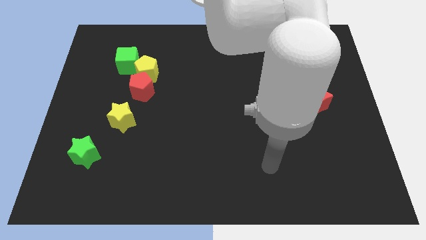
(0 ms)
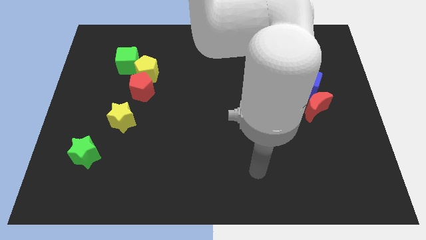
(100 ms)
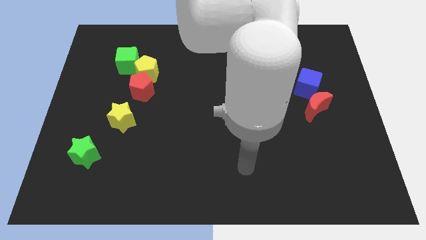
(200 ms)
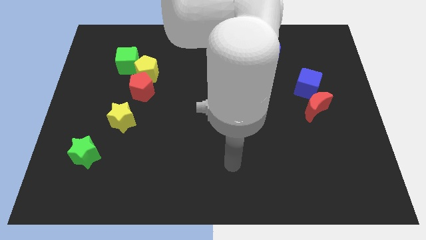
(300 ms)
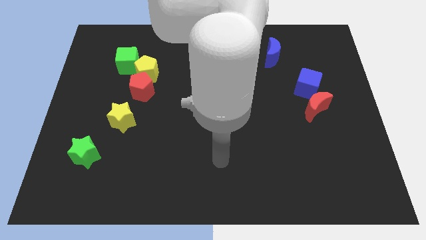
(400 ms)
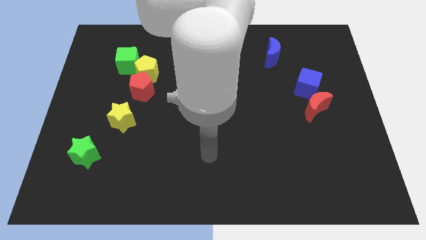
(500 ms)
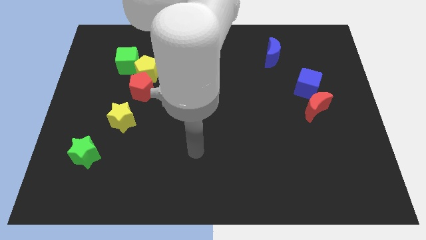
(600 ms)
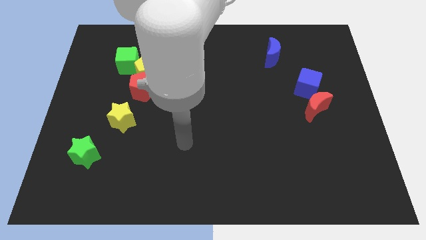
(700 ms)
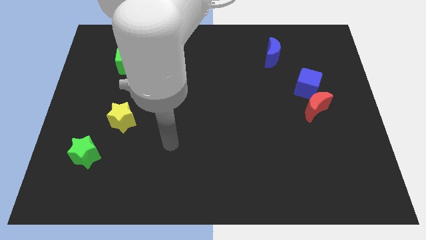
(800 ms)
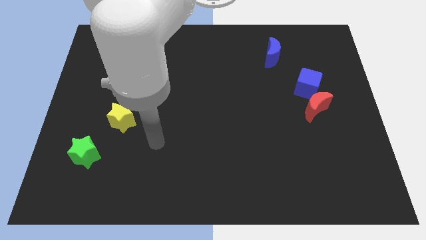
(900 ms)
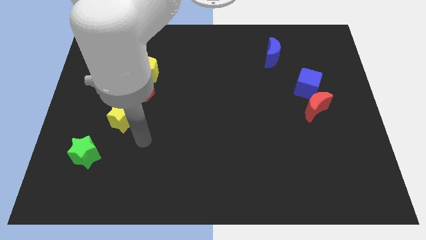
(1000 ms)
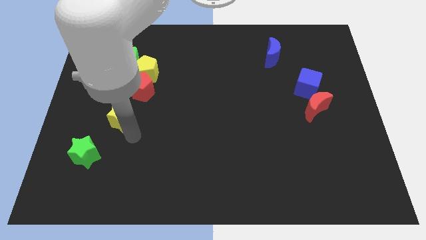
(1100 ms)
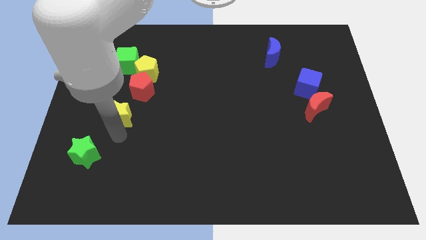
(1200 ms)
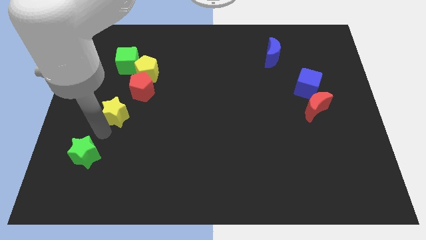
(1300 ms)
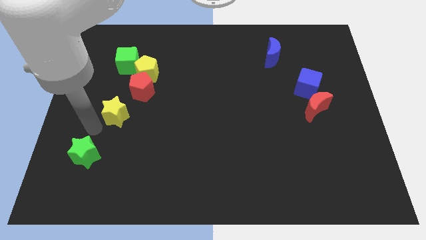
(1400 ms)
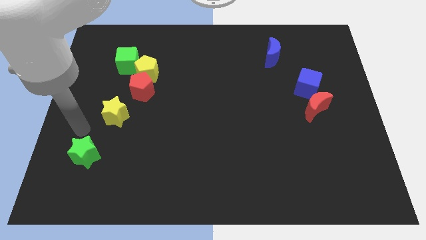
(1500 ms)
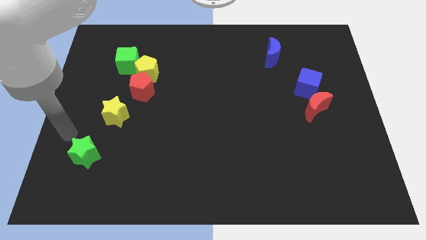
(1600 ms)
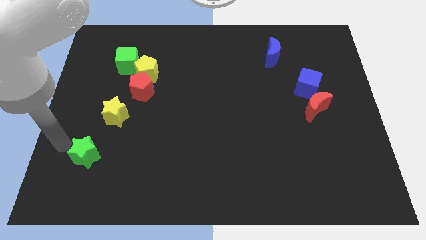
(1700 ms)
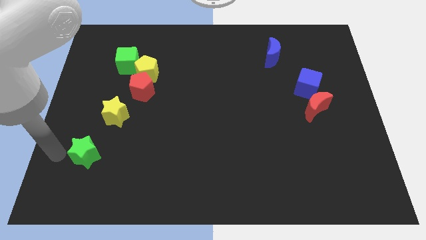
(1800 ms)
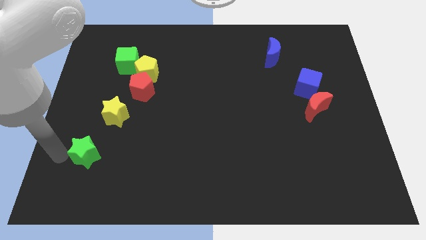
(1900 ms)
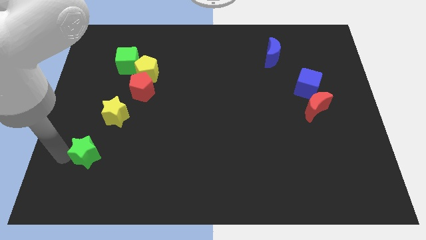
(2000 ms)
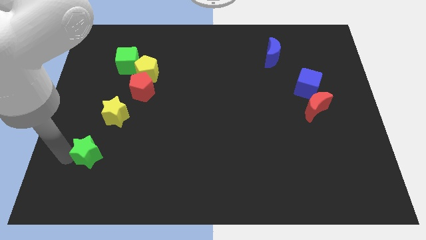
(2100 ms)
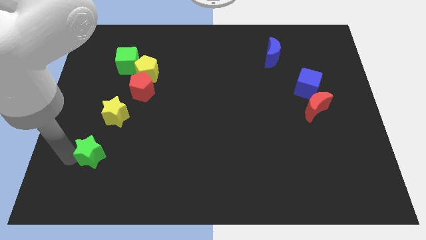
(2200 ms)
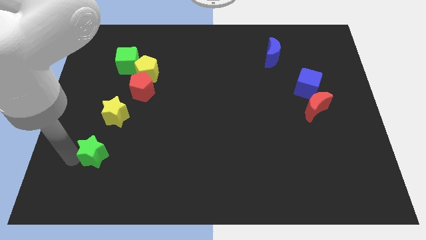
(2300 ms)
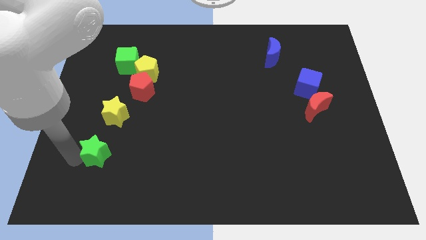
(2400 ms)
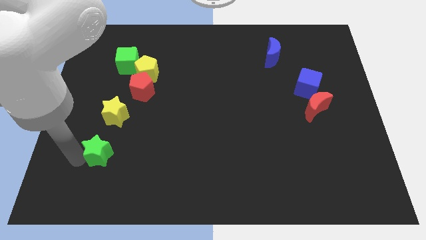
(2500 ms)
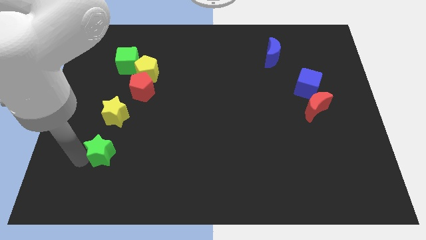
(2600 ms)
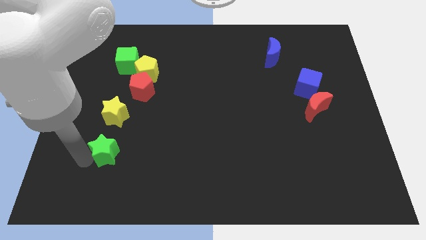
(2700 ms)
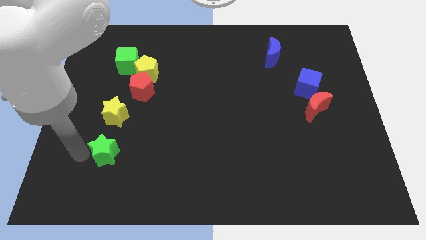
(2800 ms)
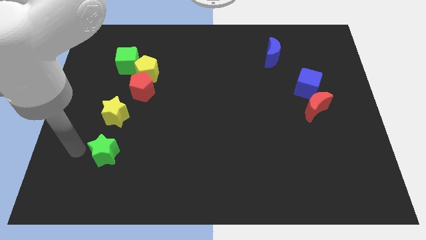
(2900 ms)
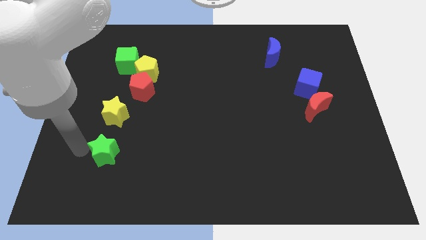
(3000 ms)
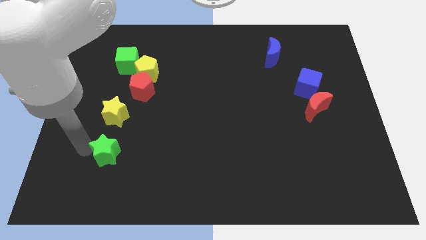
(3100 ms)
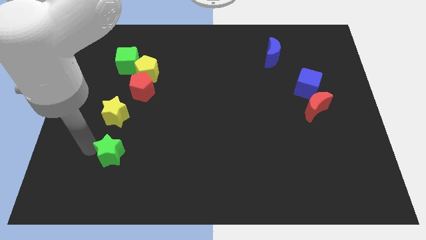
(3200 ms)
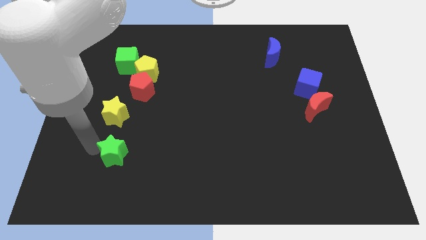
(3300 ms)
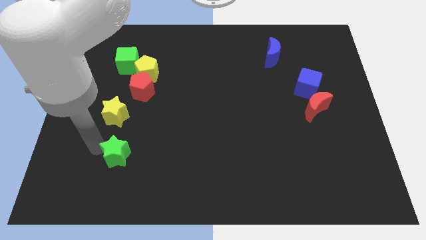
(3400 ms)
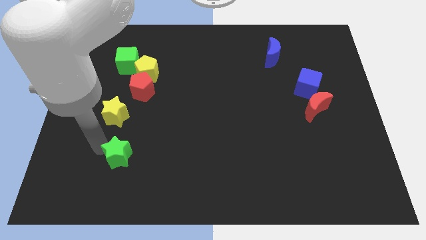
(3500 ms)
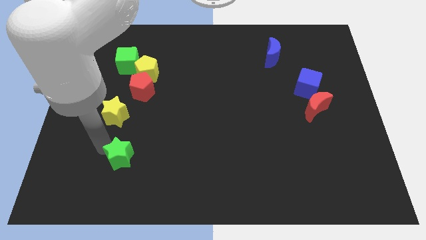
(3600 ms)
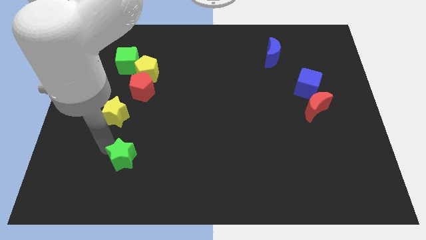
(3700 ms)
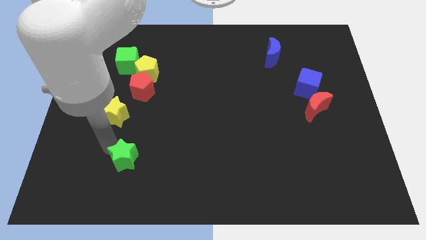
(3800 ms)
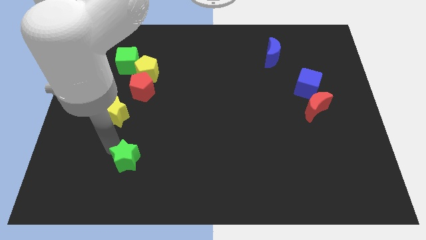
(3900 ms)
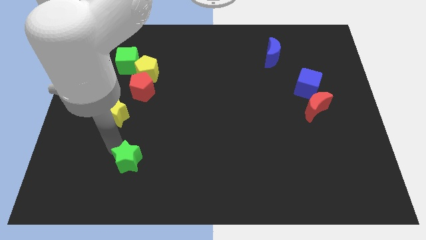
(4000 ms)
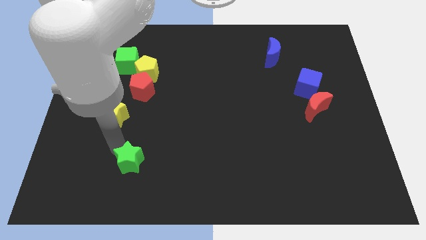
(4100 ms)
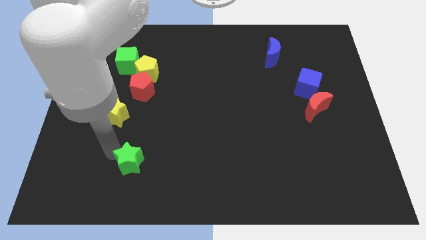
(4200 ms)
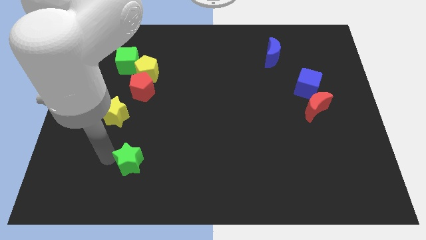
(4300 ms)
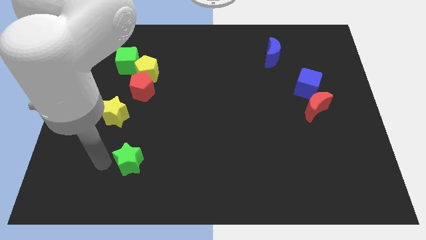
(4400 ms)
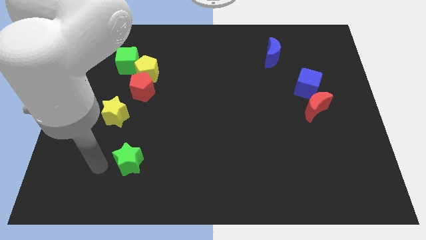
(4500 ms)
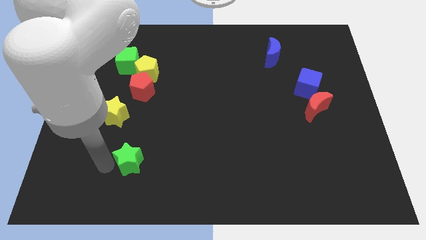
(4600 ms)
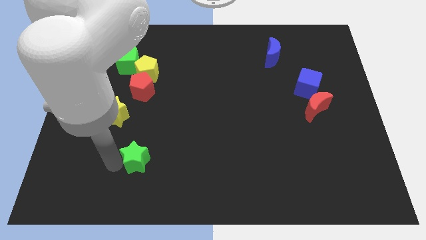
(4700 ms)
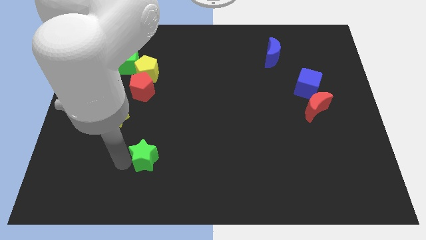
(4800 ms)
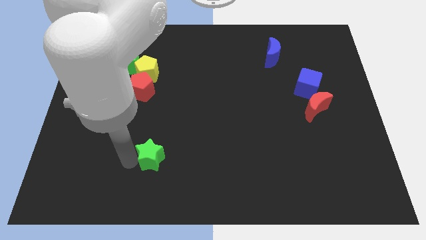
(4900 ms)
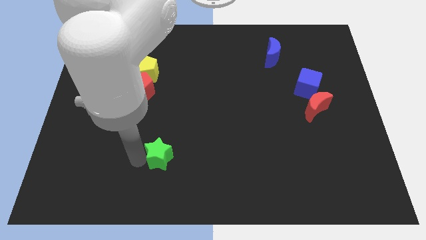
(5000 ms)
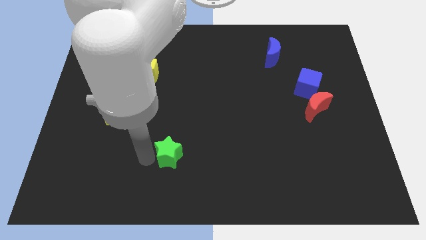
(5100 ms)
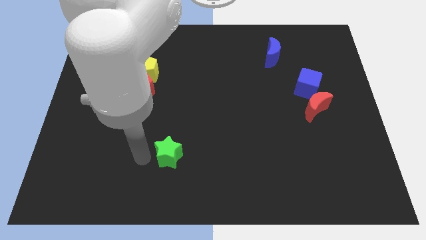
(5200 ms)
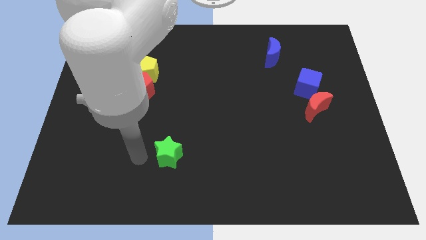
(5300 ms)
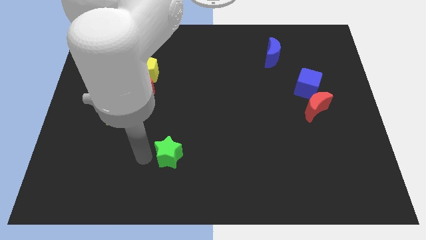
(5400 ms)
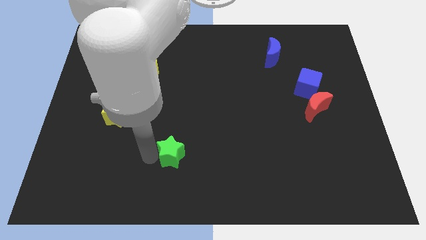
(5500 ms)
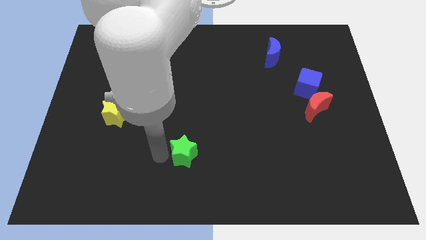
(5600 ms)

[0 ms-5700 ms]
slide the green star to the right

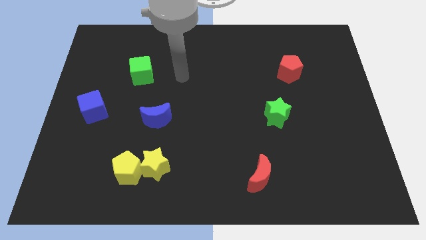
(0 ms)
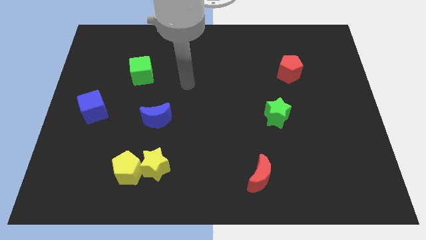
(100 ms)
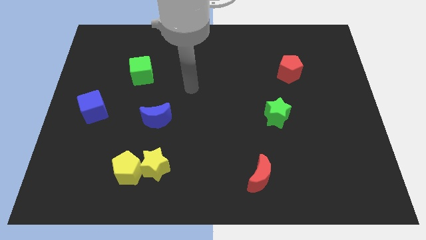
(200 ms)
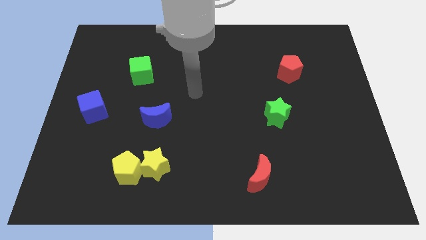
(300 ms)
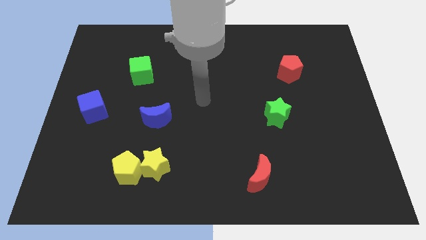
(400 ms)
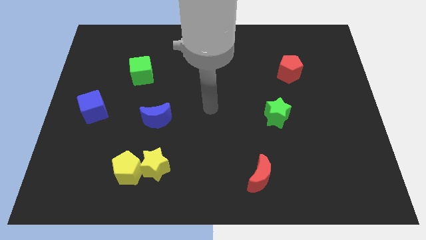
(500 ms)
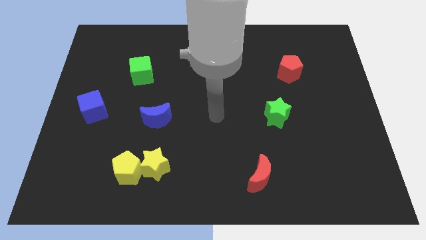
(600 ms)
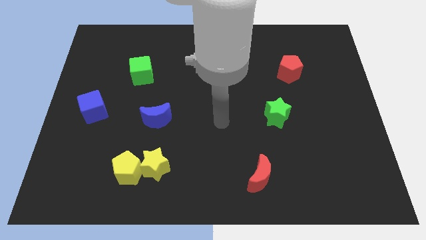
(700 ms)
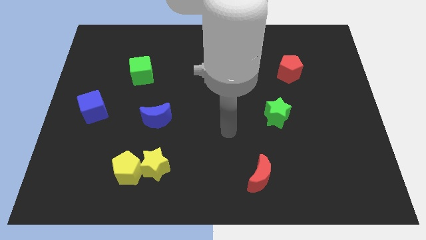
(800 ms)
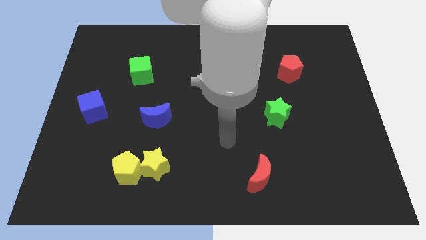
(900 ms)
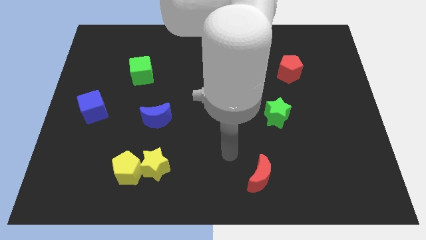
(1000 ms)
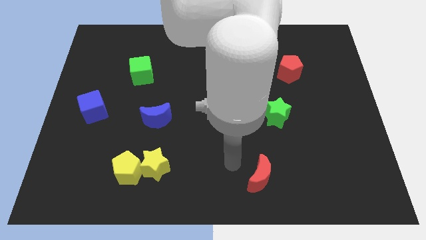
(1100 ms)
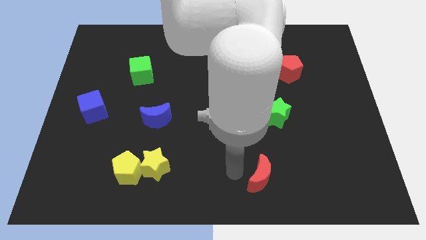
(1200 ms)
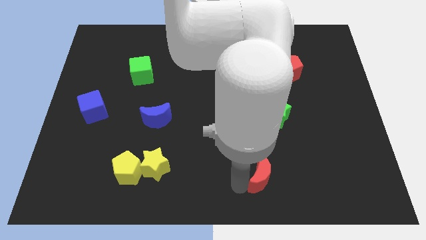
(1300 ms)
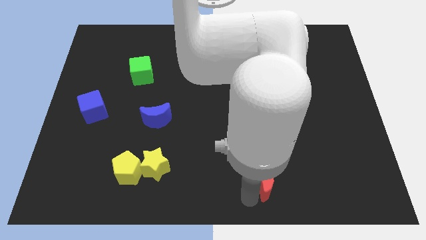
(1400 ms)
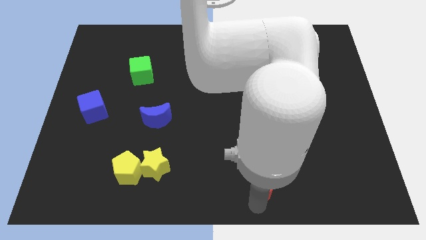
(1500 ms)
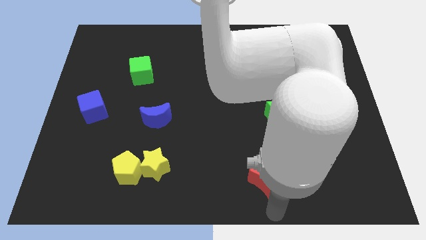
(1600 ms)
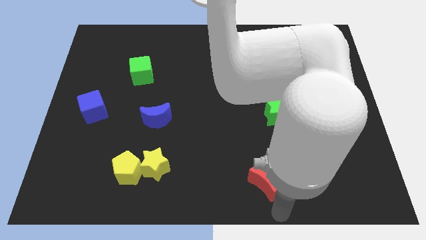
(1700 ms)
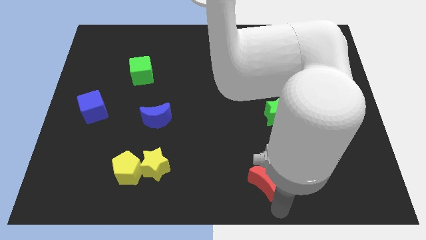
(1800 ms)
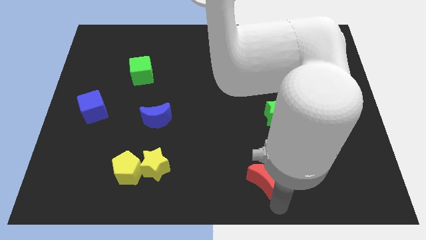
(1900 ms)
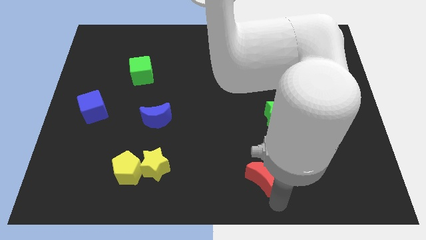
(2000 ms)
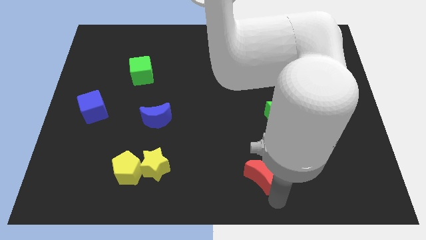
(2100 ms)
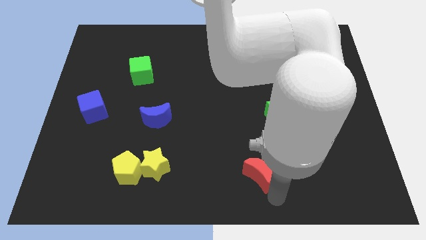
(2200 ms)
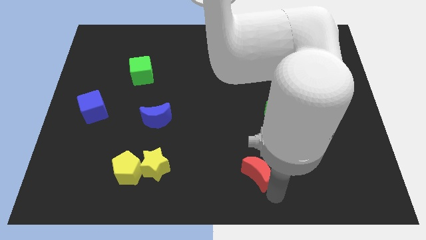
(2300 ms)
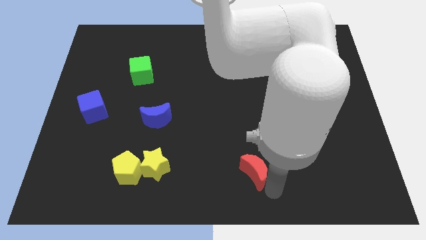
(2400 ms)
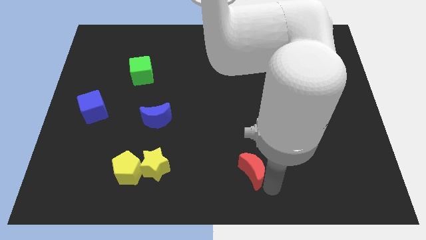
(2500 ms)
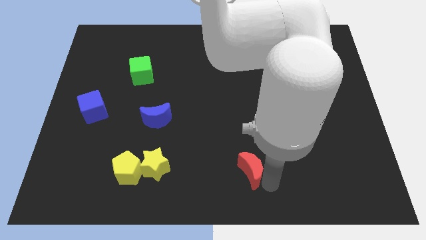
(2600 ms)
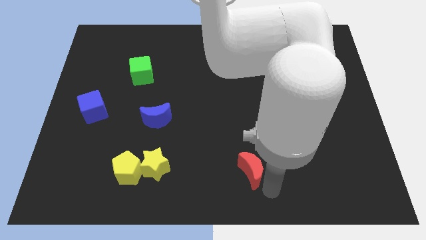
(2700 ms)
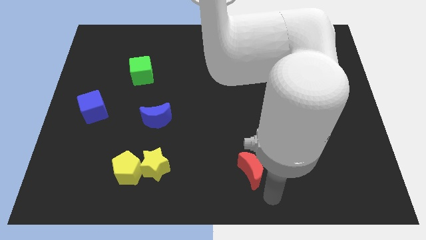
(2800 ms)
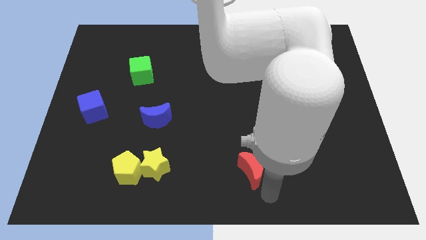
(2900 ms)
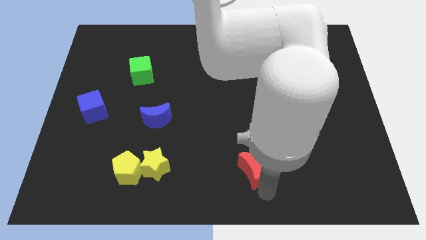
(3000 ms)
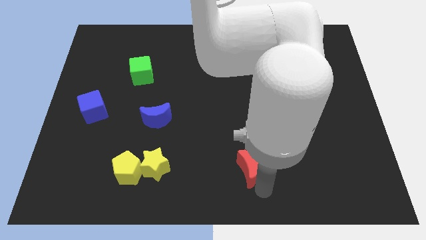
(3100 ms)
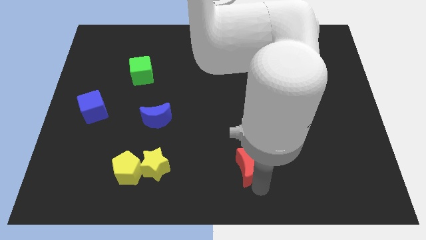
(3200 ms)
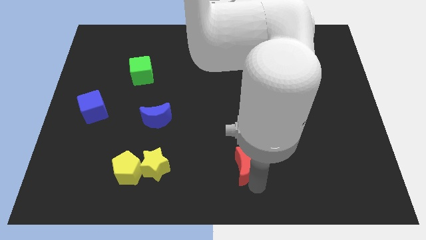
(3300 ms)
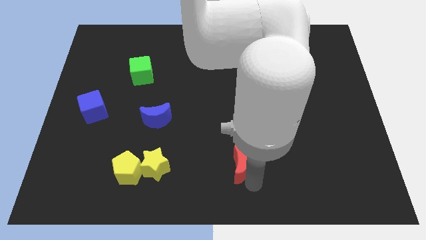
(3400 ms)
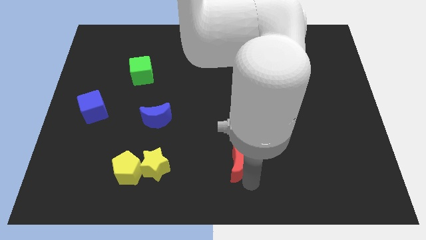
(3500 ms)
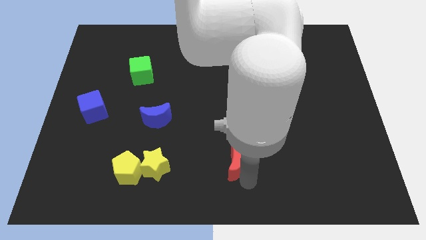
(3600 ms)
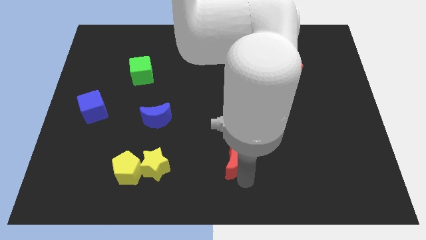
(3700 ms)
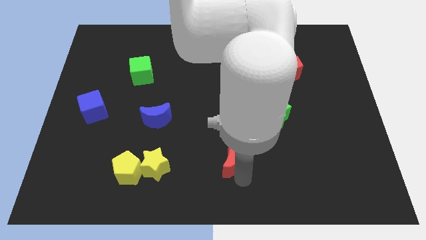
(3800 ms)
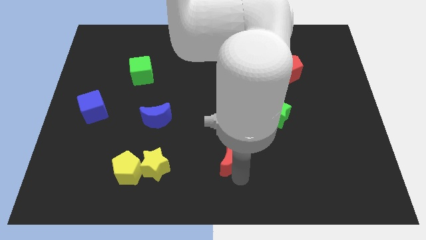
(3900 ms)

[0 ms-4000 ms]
push the red moon a little bit up and left
